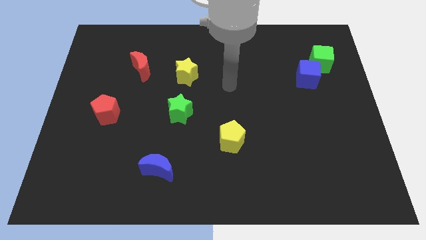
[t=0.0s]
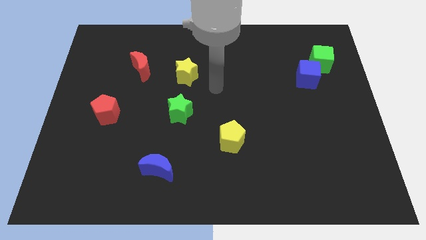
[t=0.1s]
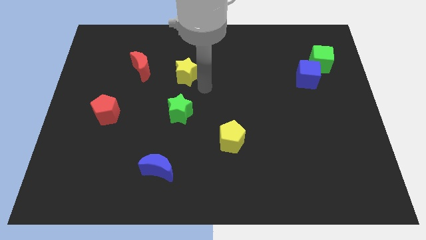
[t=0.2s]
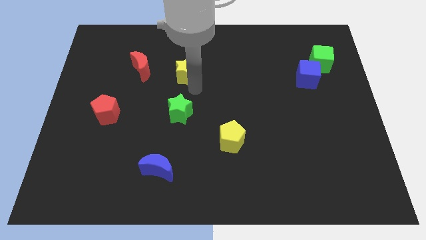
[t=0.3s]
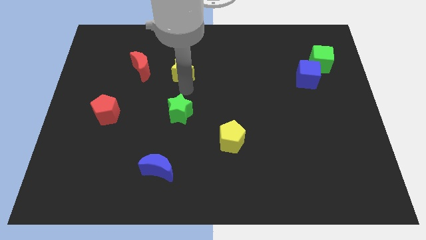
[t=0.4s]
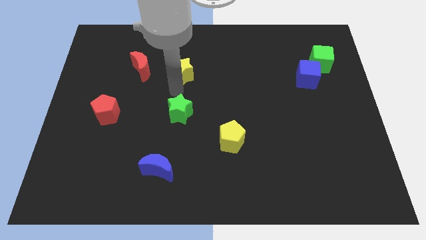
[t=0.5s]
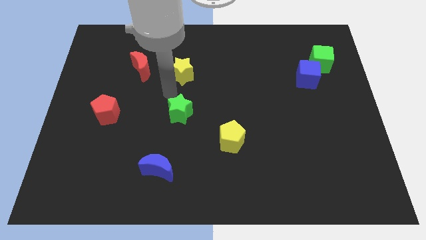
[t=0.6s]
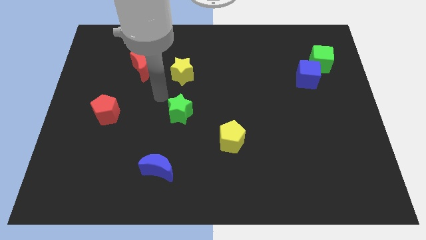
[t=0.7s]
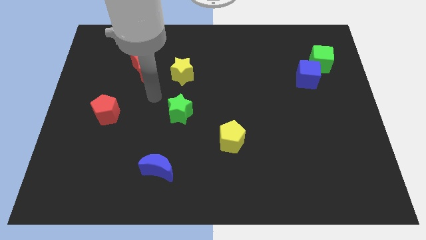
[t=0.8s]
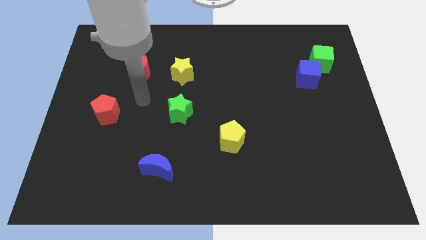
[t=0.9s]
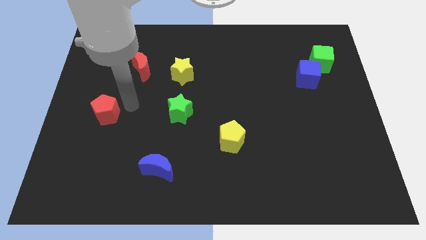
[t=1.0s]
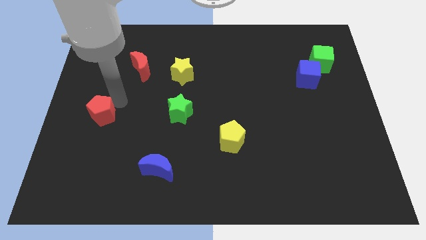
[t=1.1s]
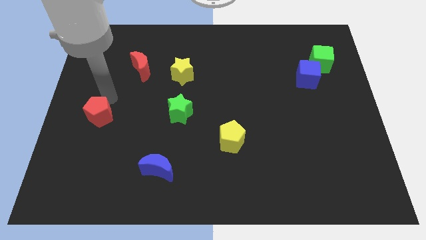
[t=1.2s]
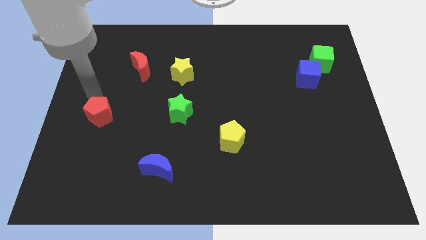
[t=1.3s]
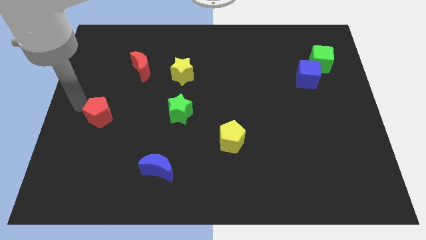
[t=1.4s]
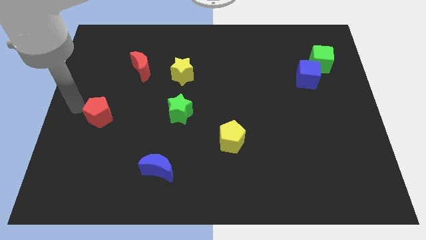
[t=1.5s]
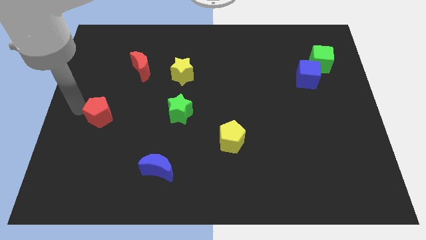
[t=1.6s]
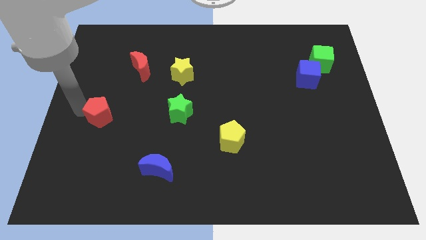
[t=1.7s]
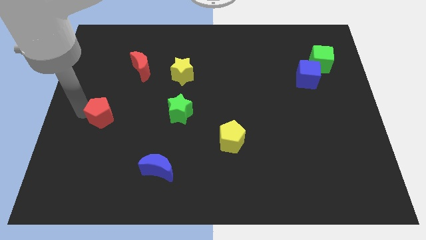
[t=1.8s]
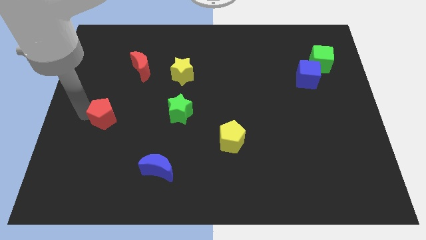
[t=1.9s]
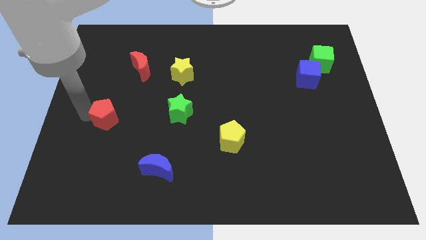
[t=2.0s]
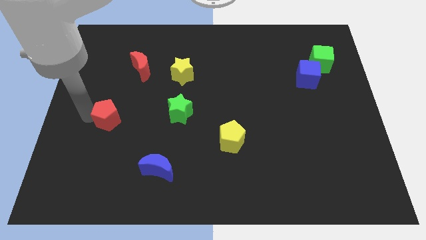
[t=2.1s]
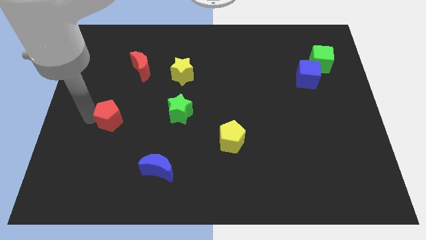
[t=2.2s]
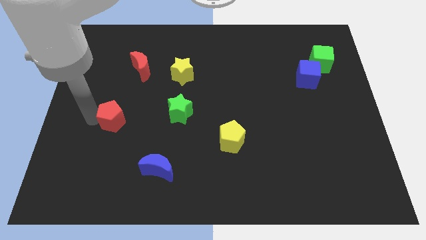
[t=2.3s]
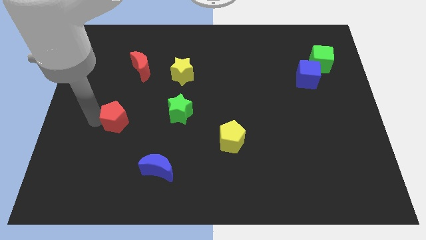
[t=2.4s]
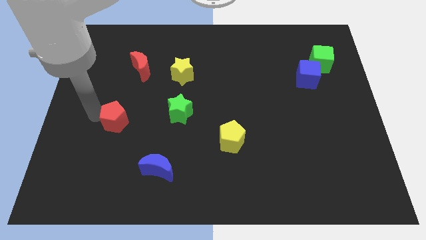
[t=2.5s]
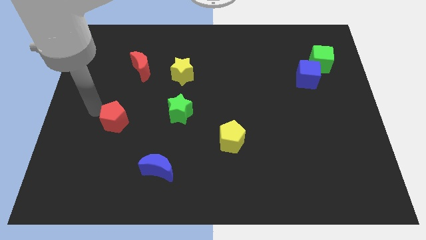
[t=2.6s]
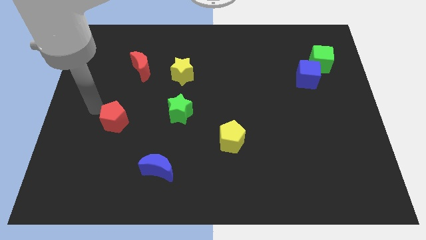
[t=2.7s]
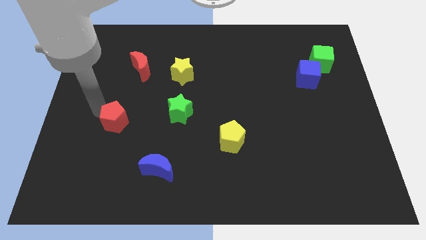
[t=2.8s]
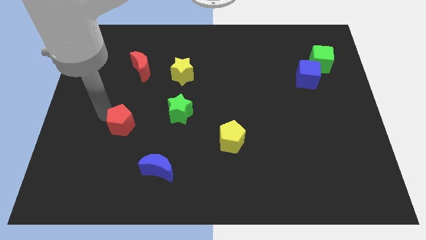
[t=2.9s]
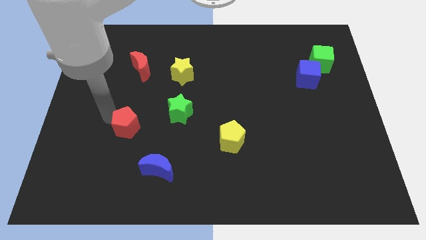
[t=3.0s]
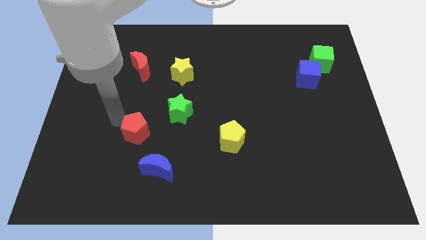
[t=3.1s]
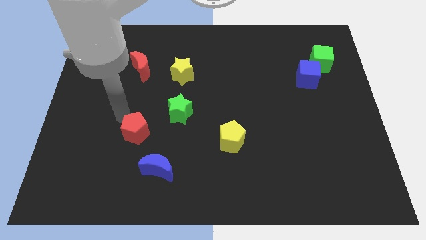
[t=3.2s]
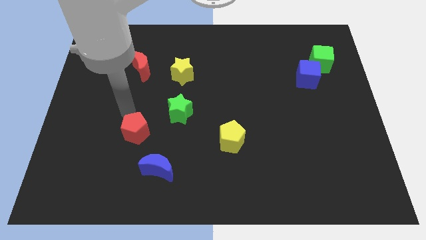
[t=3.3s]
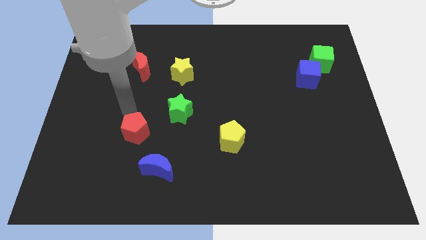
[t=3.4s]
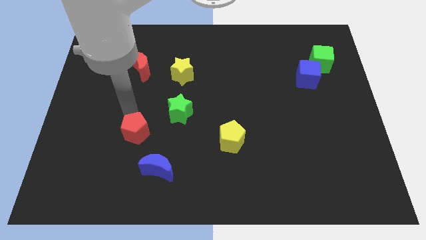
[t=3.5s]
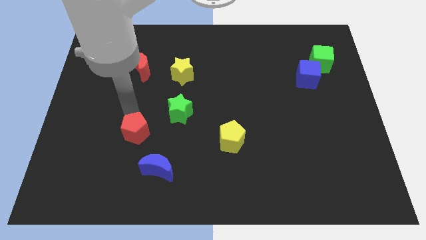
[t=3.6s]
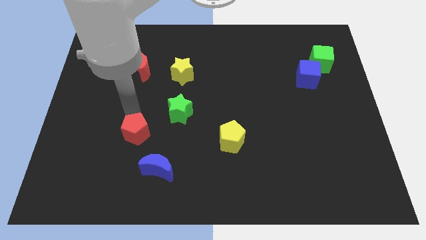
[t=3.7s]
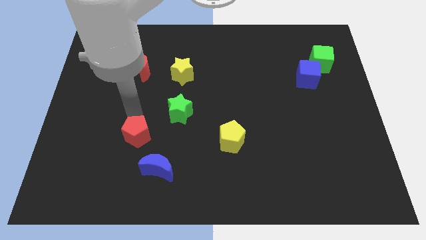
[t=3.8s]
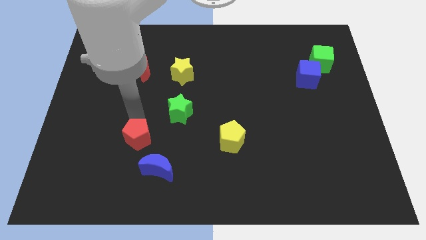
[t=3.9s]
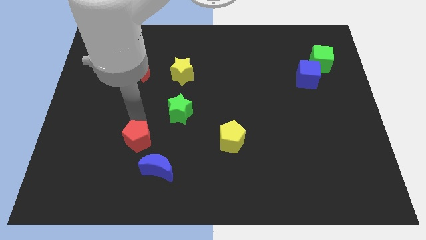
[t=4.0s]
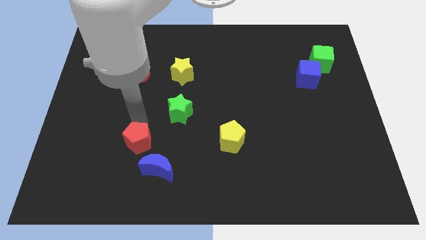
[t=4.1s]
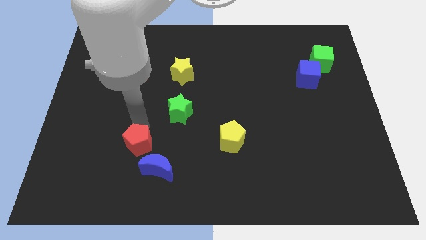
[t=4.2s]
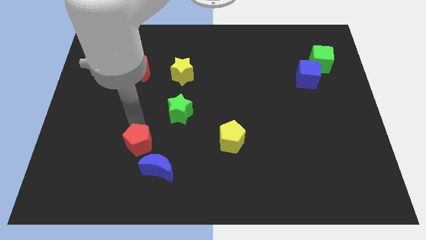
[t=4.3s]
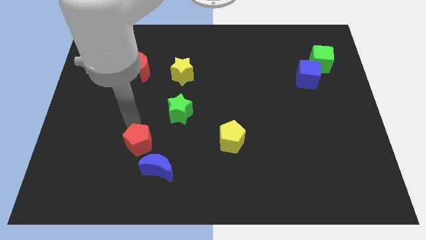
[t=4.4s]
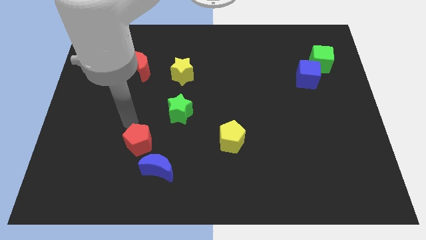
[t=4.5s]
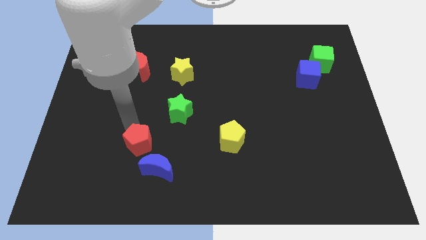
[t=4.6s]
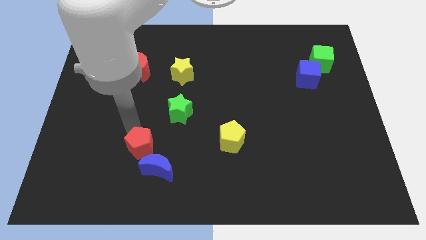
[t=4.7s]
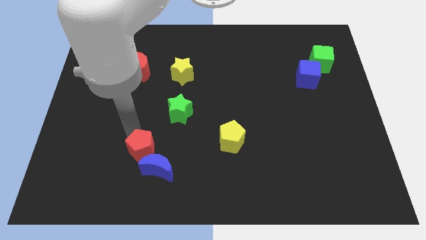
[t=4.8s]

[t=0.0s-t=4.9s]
move the red pentagon close to the blue moon

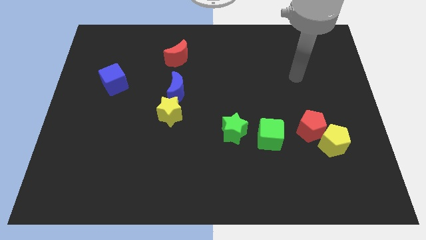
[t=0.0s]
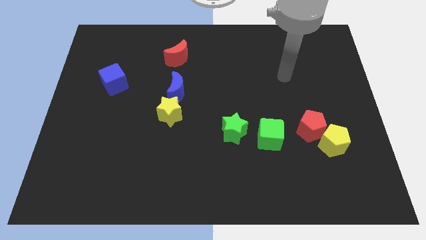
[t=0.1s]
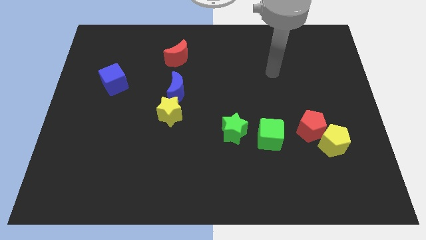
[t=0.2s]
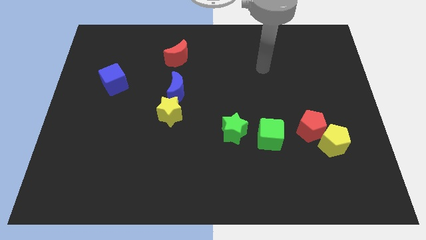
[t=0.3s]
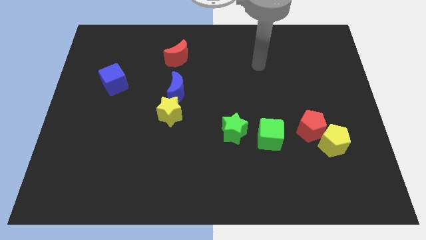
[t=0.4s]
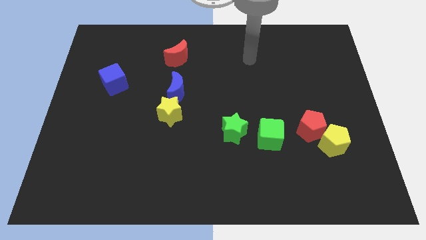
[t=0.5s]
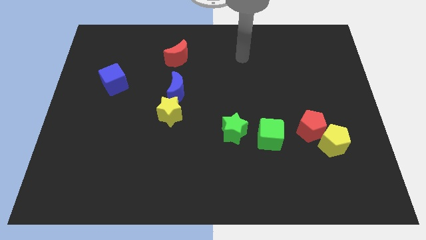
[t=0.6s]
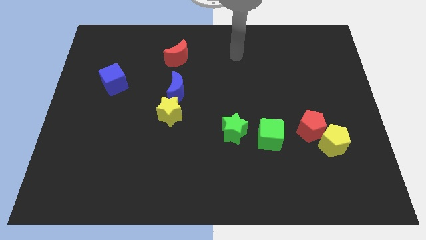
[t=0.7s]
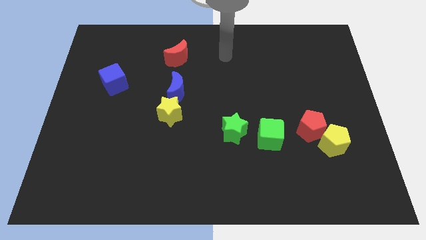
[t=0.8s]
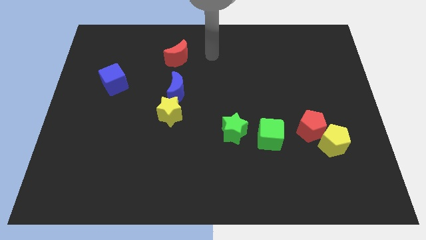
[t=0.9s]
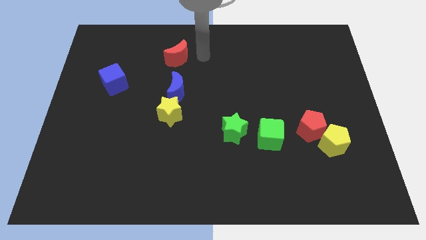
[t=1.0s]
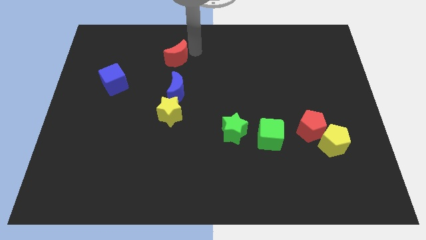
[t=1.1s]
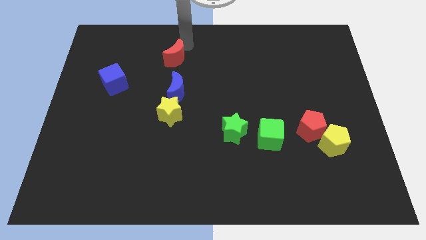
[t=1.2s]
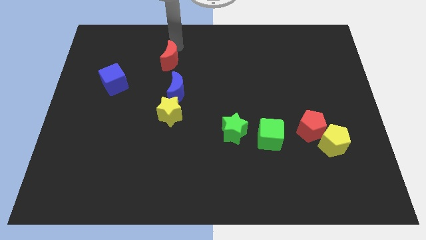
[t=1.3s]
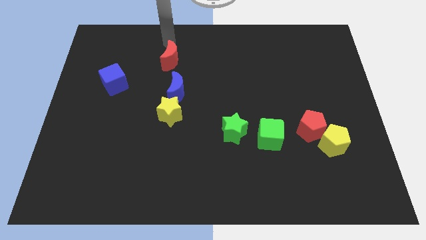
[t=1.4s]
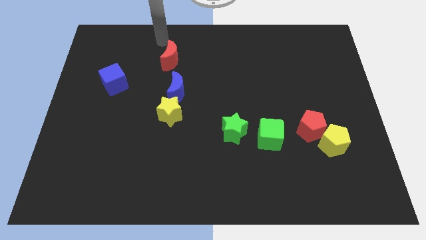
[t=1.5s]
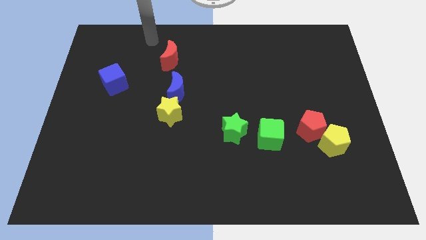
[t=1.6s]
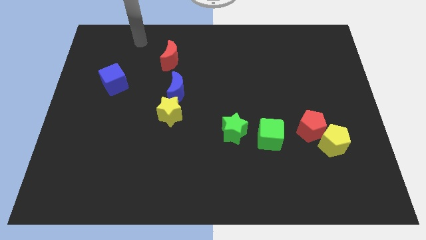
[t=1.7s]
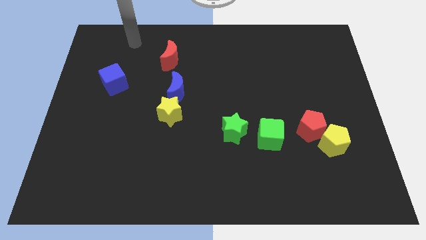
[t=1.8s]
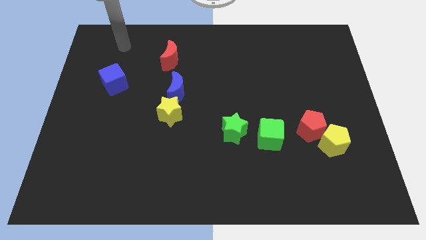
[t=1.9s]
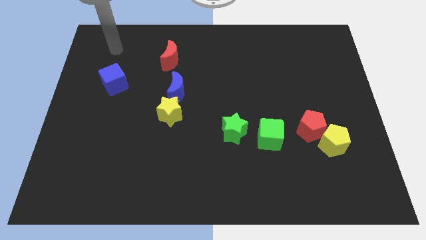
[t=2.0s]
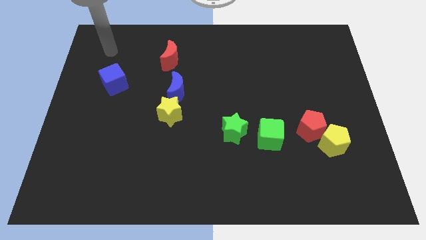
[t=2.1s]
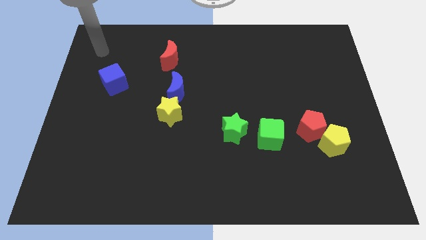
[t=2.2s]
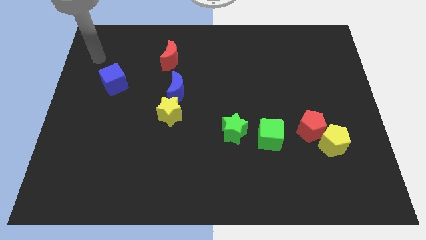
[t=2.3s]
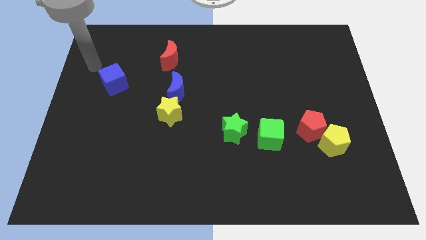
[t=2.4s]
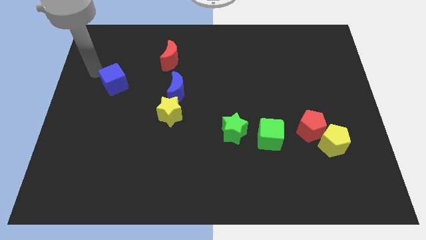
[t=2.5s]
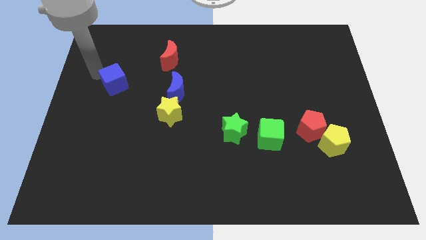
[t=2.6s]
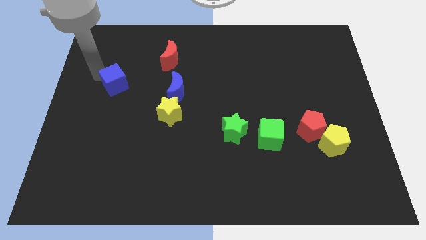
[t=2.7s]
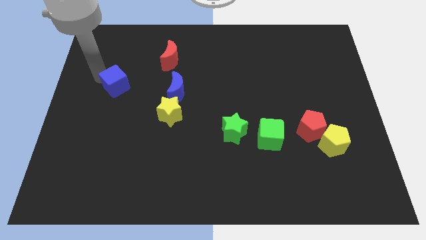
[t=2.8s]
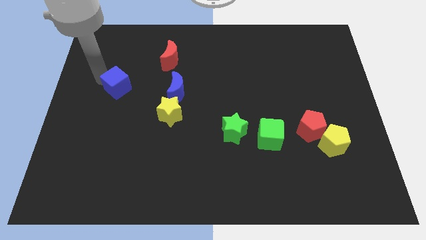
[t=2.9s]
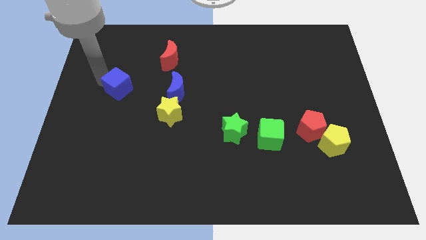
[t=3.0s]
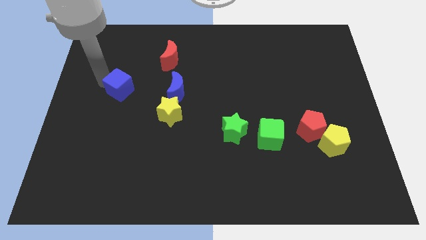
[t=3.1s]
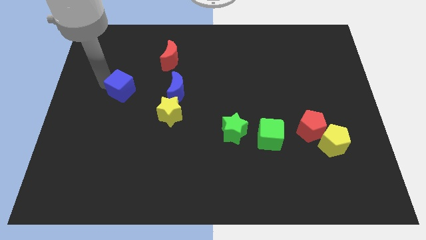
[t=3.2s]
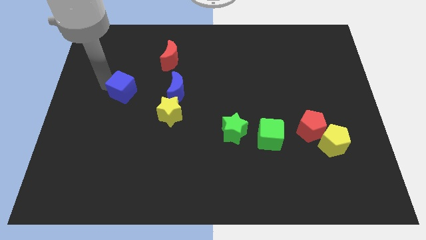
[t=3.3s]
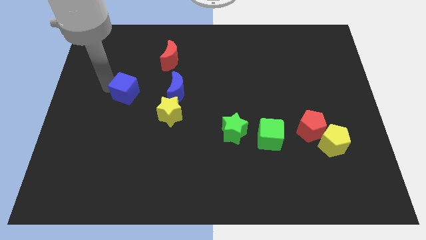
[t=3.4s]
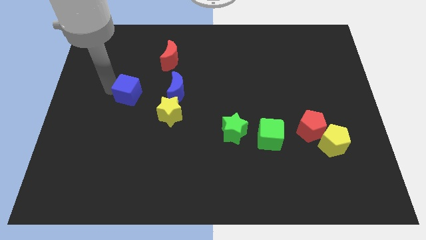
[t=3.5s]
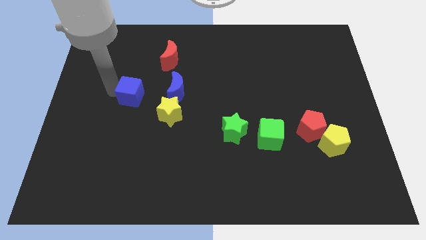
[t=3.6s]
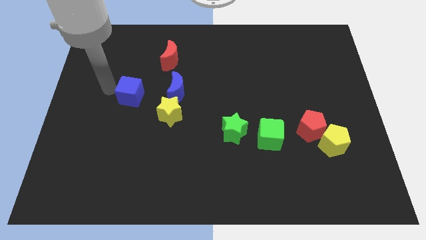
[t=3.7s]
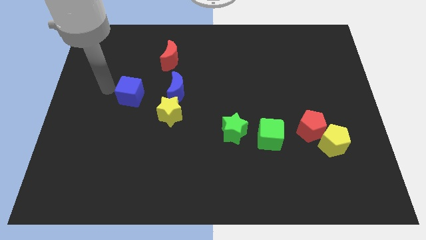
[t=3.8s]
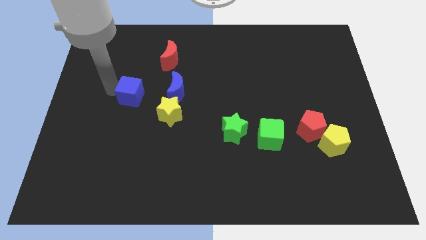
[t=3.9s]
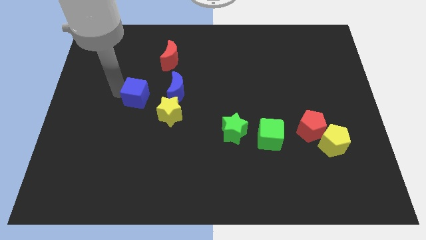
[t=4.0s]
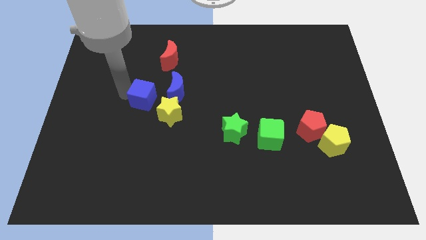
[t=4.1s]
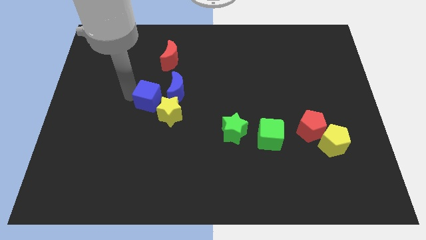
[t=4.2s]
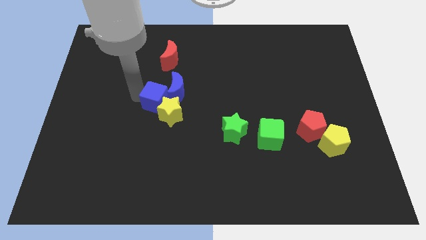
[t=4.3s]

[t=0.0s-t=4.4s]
move the blue cube to the yellow star
